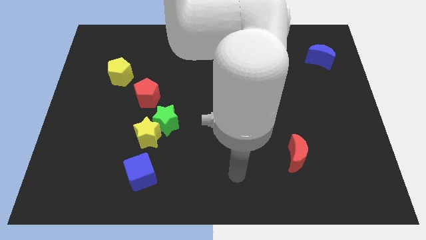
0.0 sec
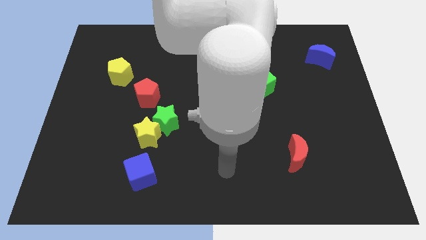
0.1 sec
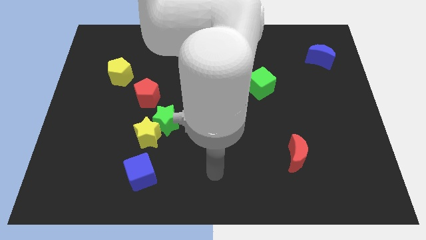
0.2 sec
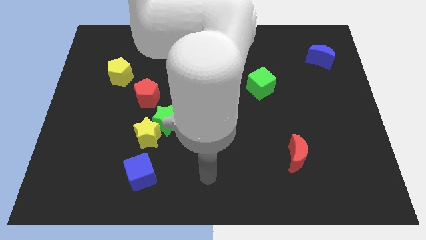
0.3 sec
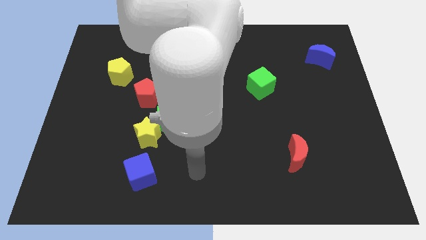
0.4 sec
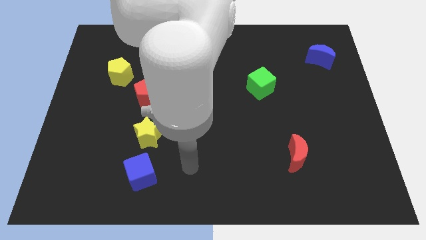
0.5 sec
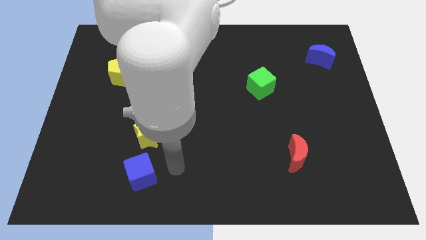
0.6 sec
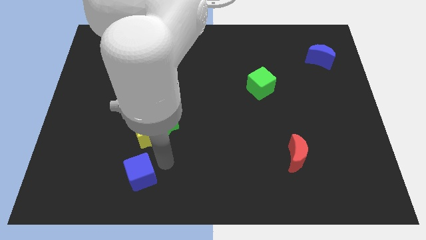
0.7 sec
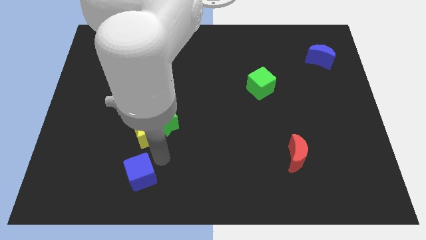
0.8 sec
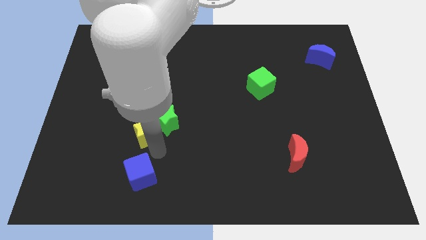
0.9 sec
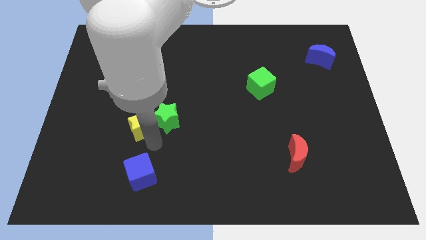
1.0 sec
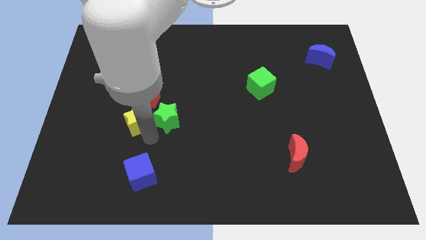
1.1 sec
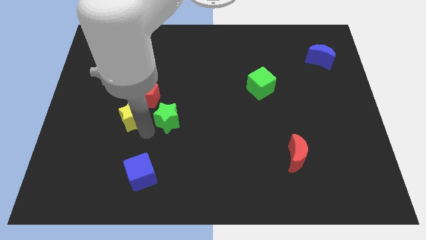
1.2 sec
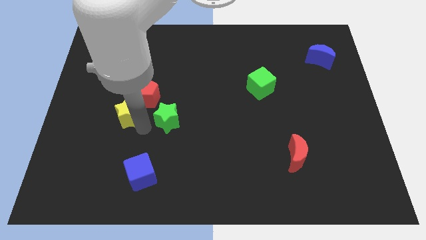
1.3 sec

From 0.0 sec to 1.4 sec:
move the yellow star away from the green star and blue cube

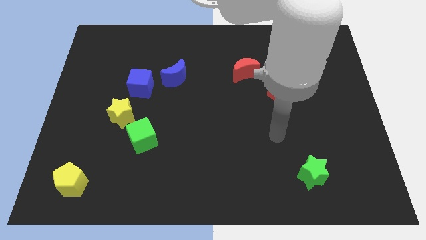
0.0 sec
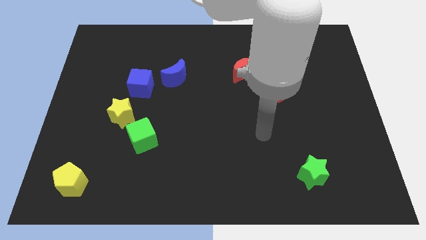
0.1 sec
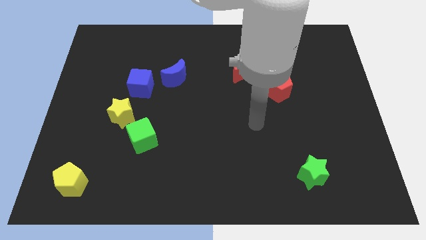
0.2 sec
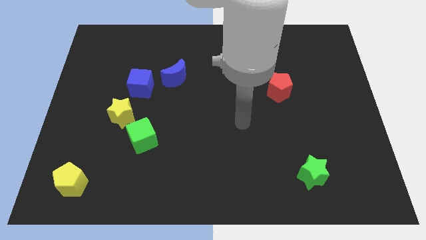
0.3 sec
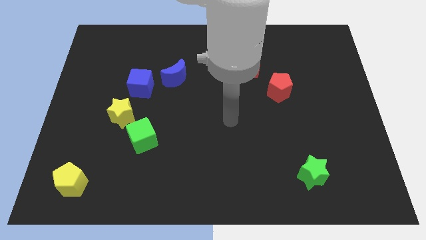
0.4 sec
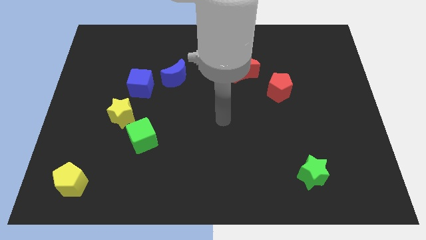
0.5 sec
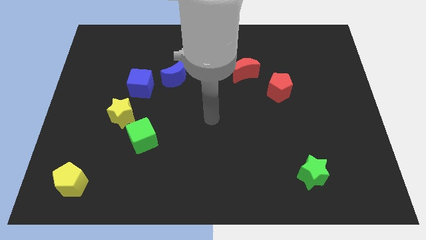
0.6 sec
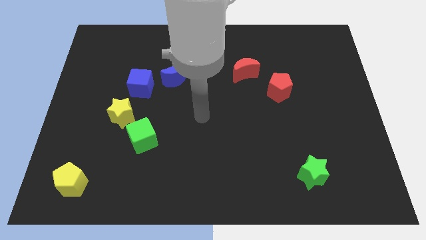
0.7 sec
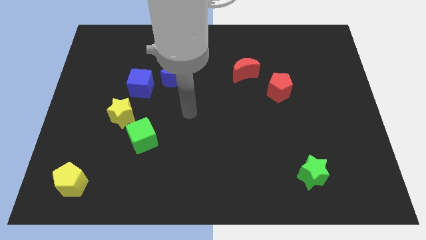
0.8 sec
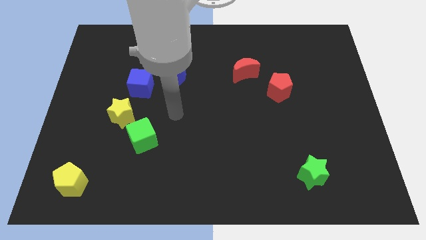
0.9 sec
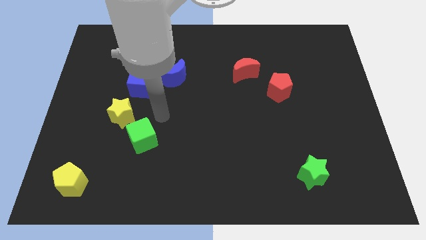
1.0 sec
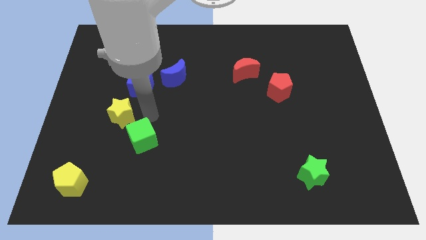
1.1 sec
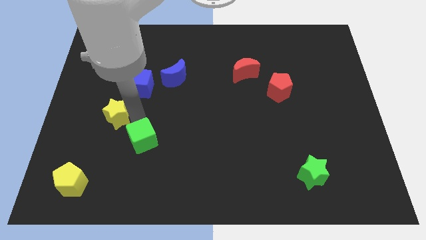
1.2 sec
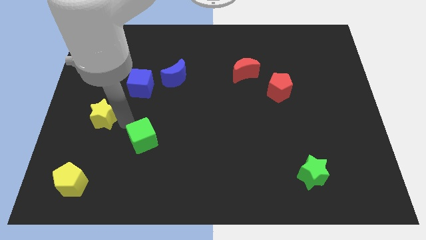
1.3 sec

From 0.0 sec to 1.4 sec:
pull the green cube apart from the yellow star

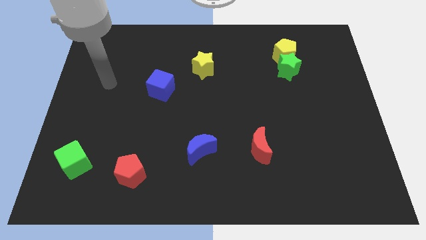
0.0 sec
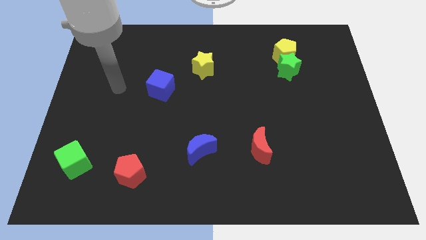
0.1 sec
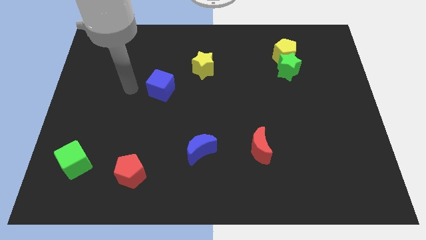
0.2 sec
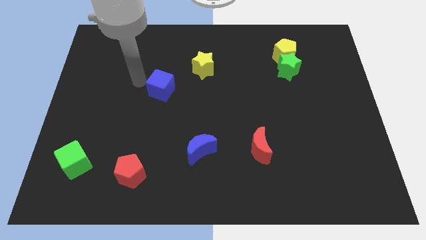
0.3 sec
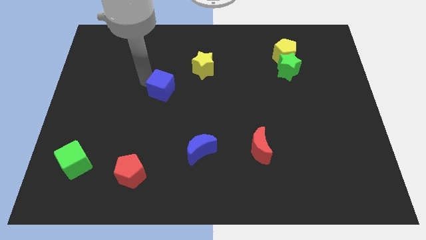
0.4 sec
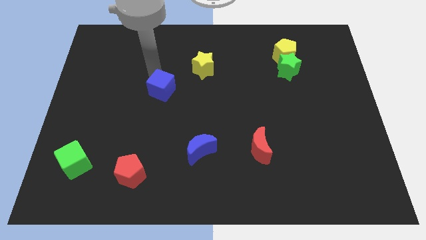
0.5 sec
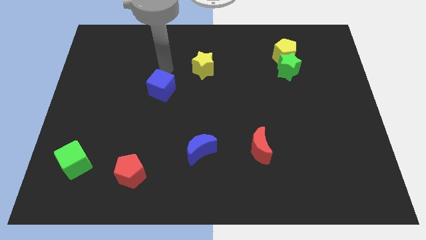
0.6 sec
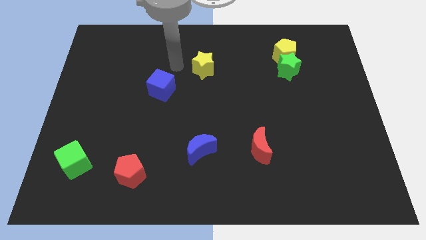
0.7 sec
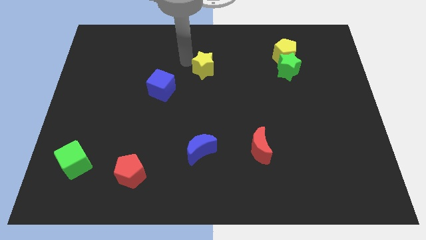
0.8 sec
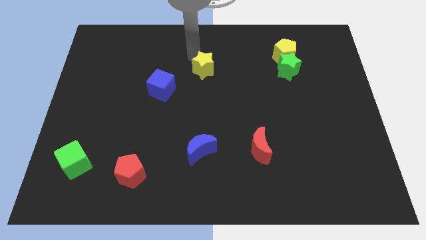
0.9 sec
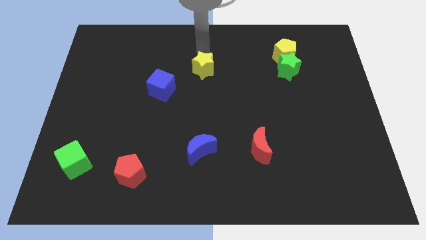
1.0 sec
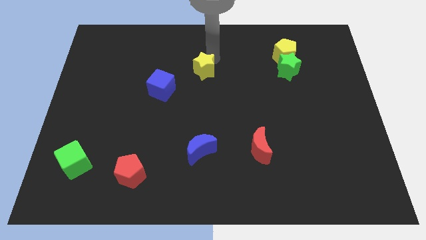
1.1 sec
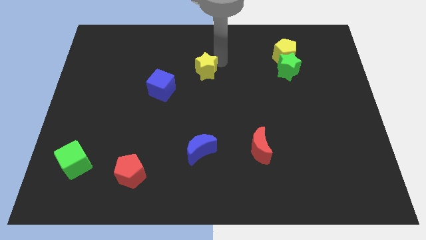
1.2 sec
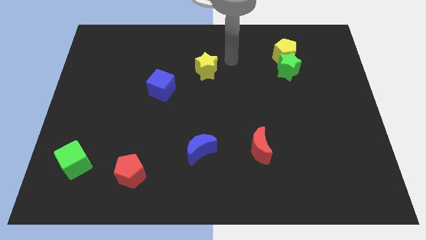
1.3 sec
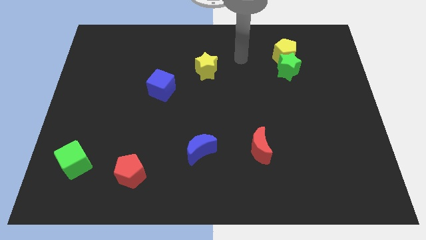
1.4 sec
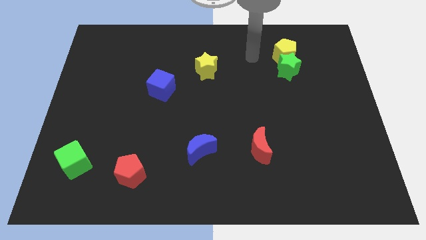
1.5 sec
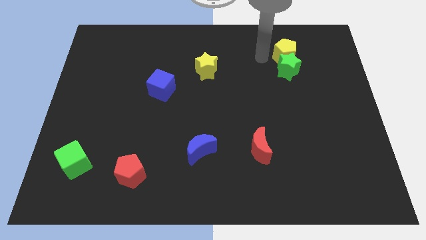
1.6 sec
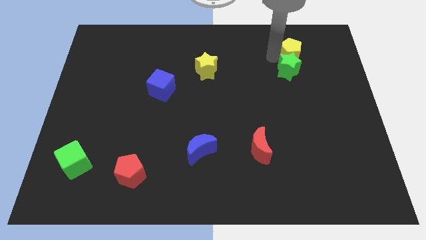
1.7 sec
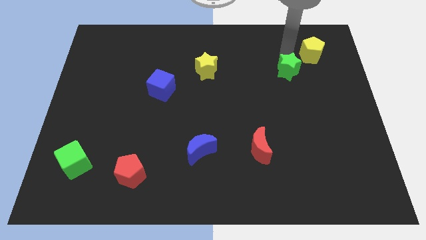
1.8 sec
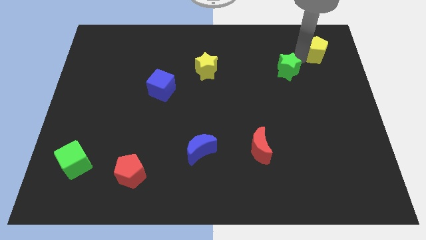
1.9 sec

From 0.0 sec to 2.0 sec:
separate the green star from the yellow pentagon

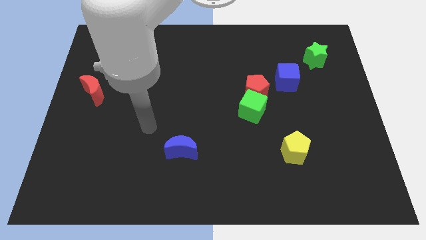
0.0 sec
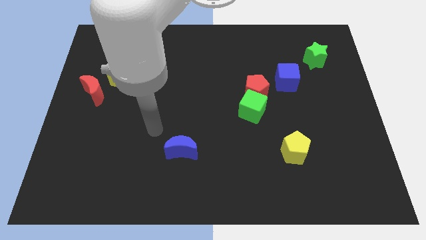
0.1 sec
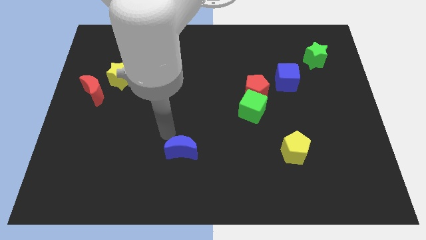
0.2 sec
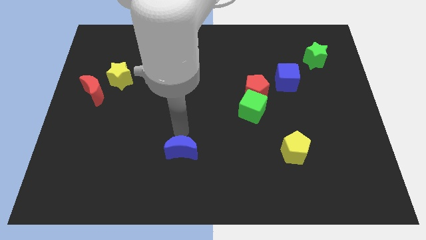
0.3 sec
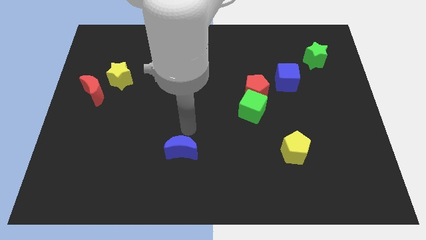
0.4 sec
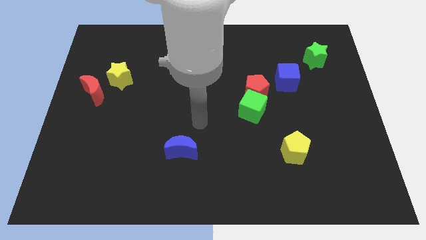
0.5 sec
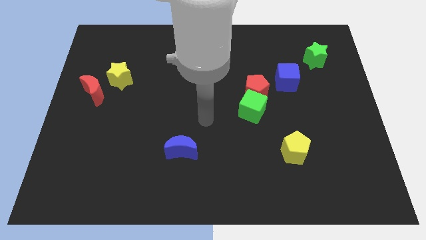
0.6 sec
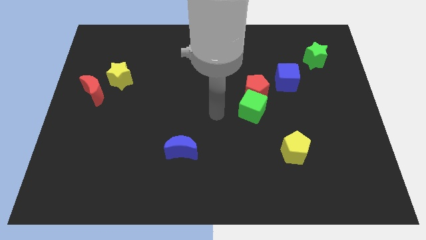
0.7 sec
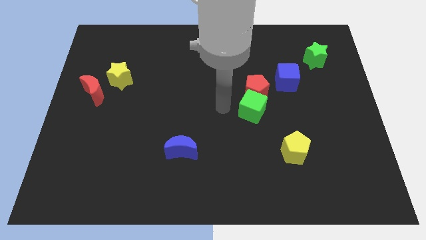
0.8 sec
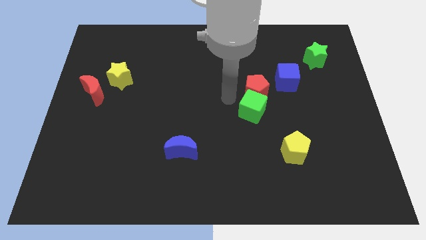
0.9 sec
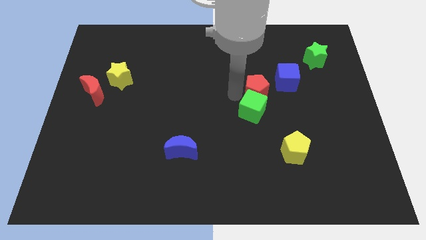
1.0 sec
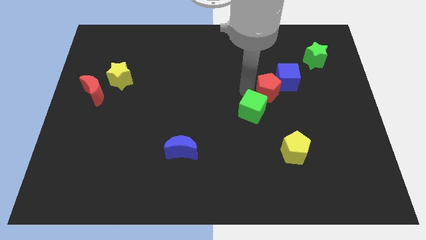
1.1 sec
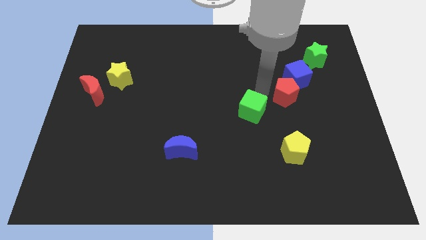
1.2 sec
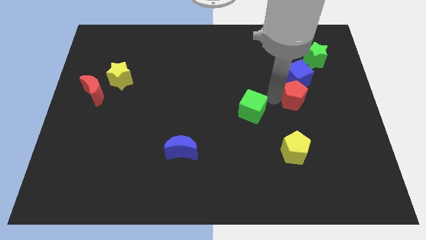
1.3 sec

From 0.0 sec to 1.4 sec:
separate the green cube from the red pentagon

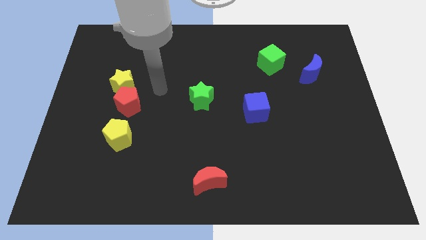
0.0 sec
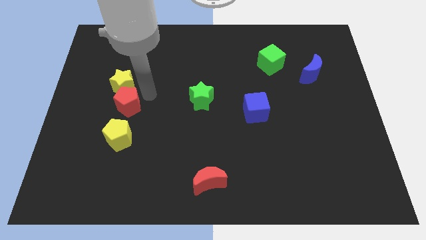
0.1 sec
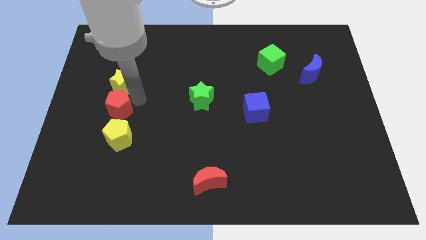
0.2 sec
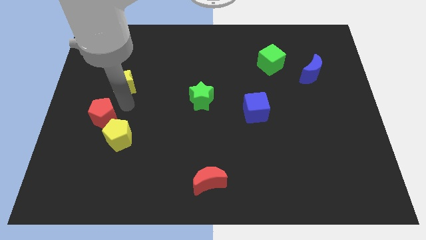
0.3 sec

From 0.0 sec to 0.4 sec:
separate the yellow star from the red pentagon

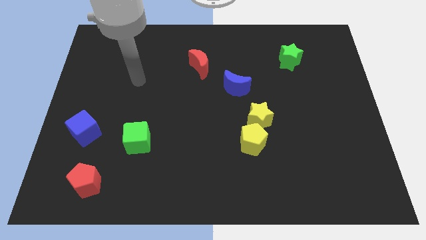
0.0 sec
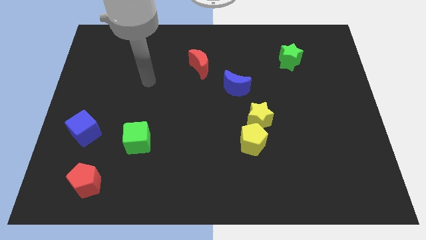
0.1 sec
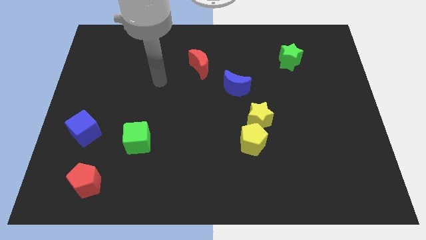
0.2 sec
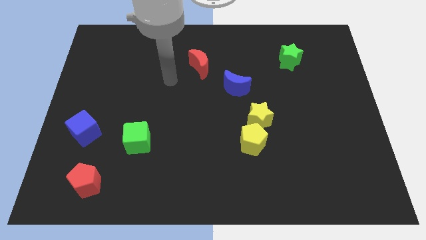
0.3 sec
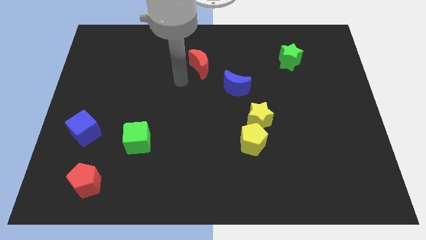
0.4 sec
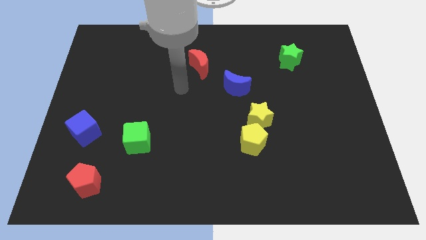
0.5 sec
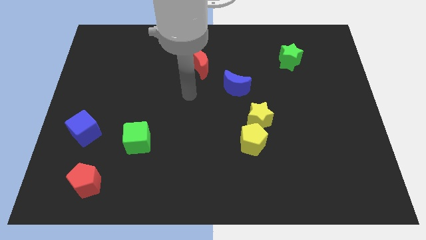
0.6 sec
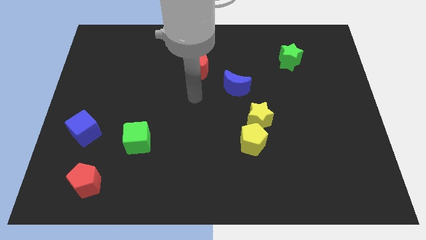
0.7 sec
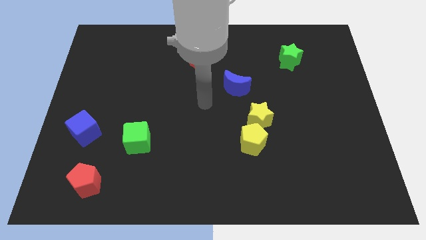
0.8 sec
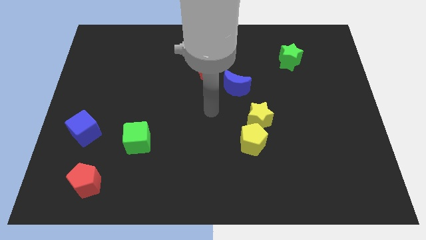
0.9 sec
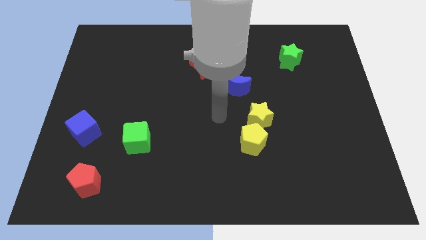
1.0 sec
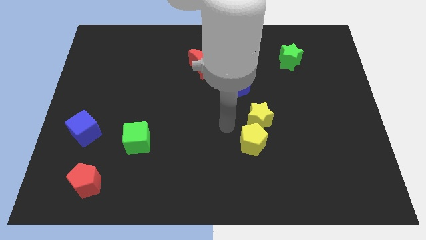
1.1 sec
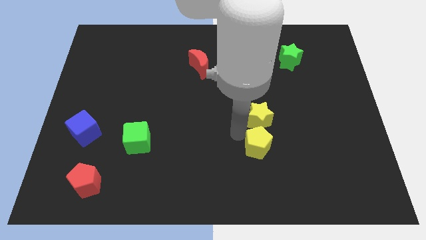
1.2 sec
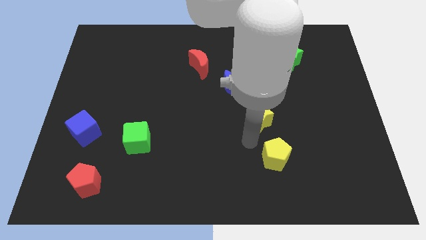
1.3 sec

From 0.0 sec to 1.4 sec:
move the yellow star away from the yellow pentagon

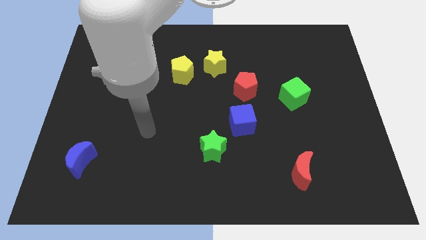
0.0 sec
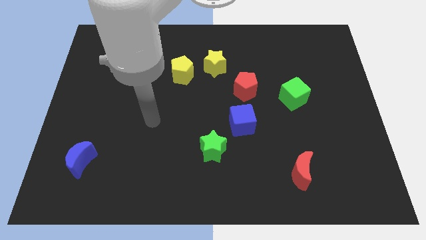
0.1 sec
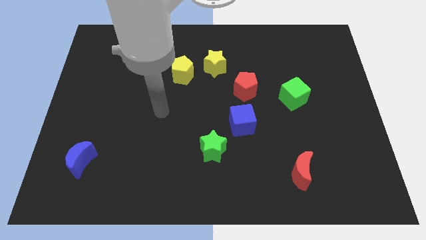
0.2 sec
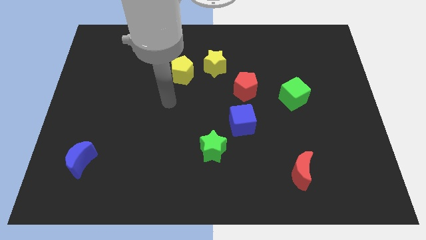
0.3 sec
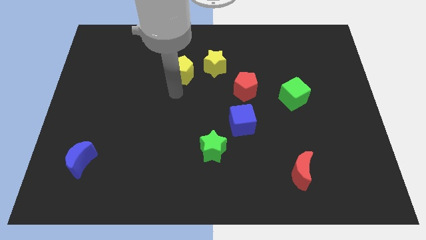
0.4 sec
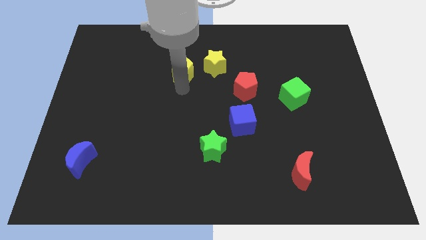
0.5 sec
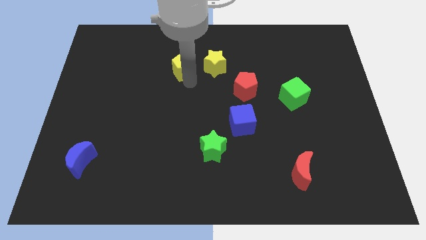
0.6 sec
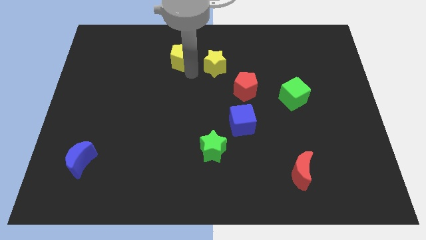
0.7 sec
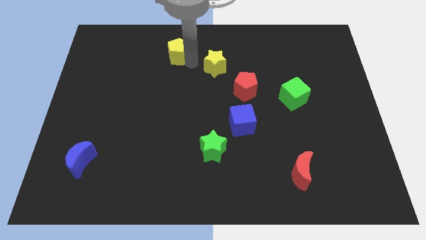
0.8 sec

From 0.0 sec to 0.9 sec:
pull the yellow star apart from the yellow pentagon

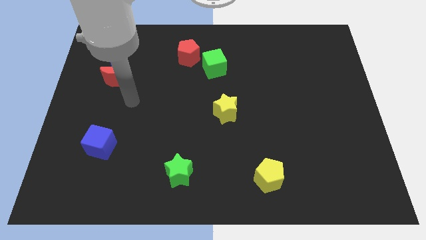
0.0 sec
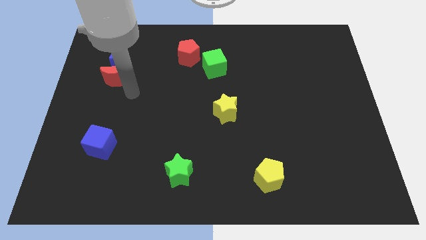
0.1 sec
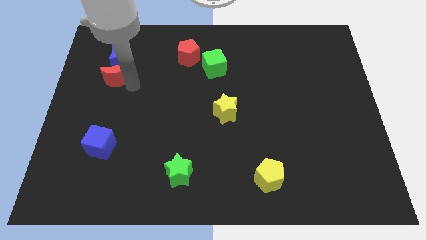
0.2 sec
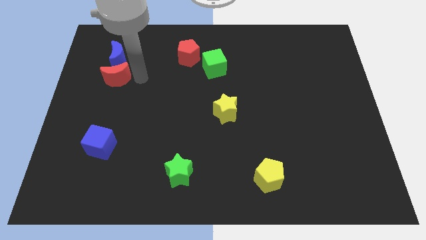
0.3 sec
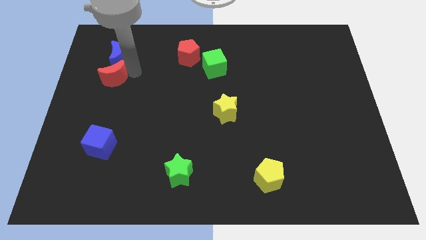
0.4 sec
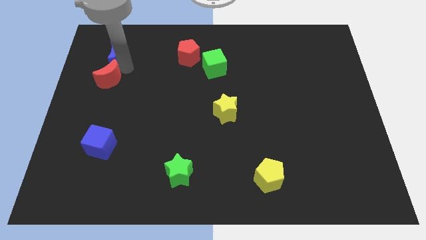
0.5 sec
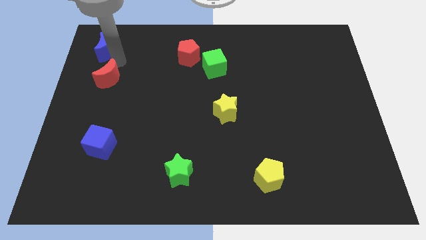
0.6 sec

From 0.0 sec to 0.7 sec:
pull the red moon apart from the blue moon
